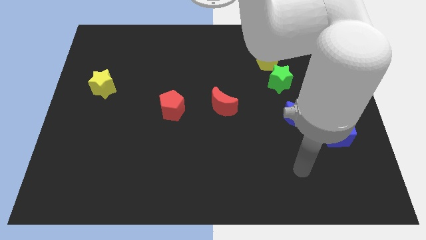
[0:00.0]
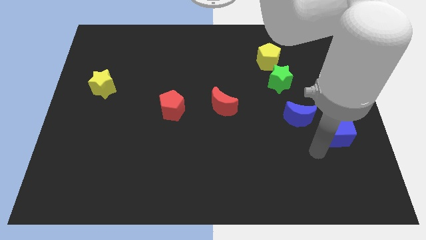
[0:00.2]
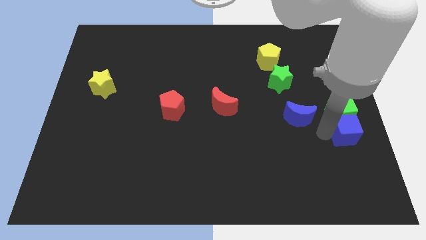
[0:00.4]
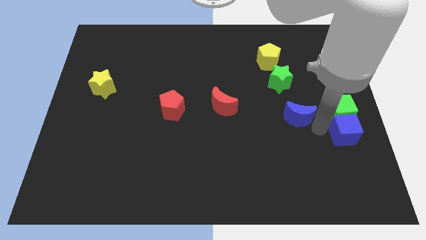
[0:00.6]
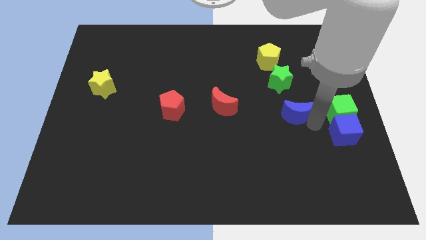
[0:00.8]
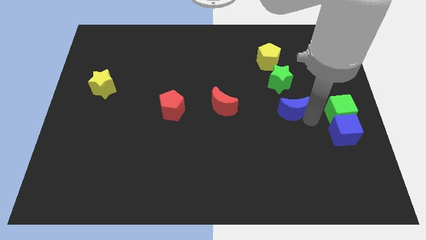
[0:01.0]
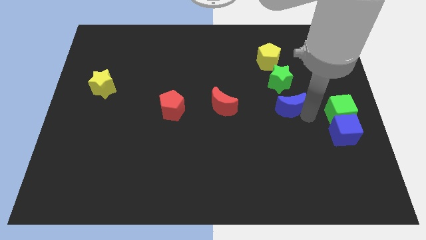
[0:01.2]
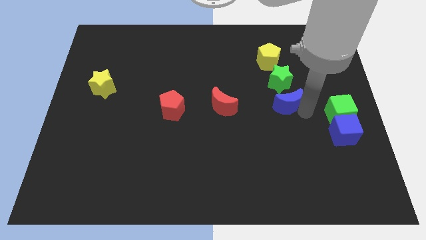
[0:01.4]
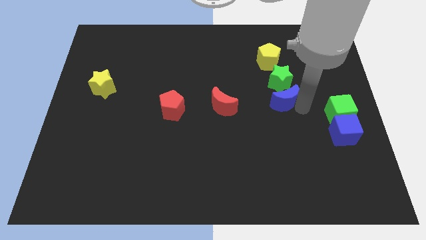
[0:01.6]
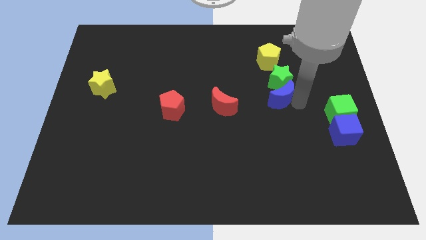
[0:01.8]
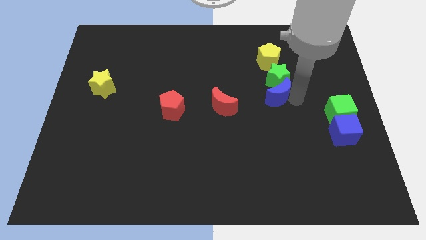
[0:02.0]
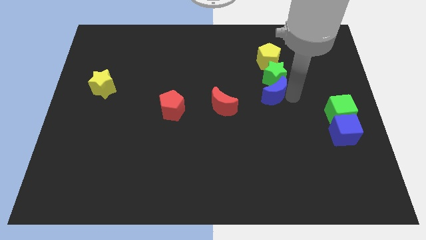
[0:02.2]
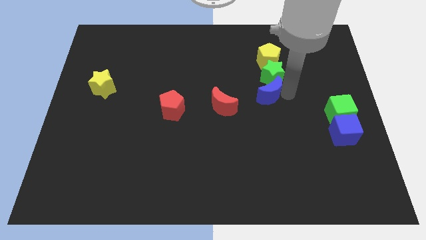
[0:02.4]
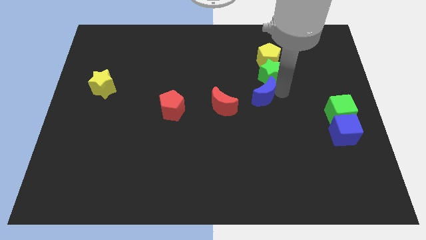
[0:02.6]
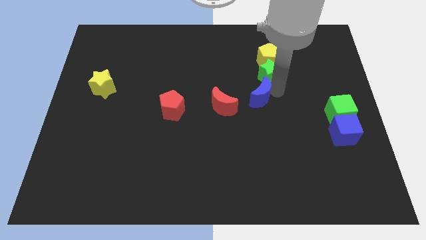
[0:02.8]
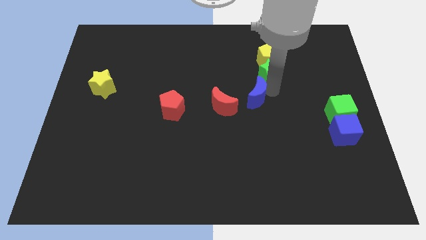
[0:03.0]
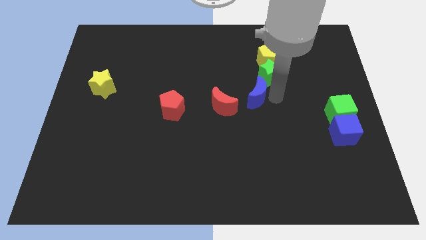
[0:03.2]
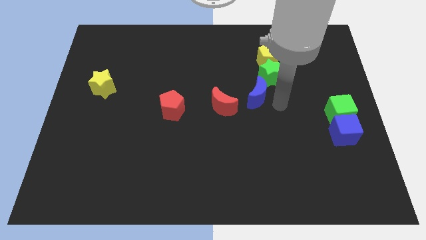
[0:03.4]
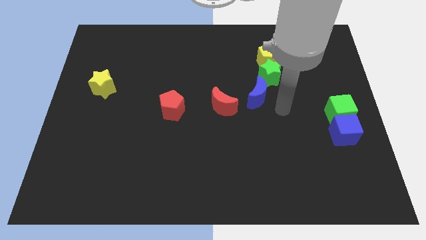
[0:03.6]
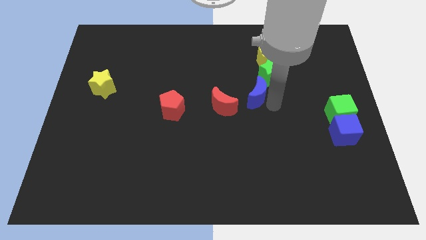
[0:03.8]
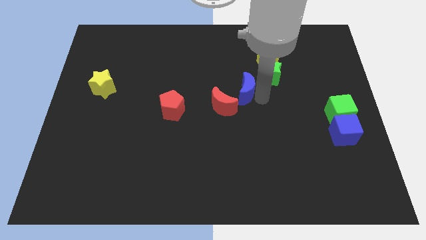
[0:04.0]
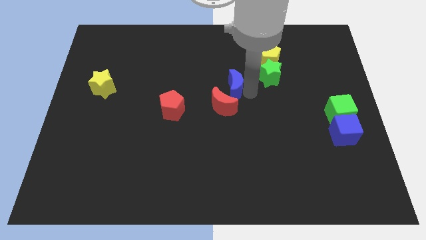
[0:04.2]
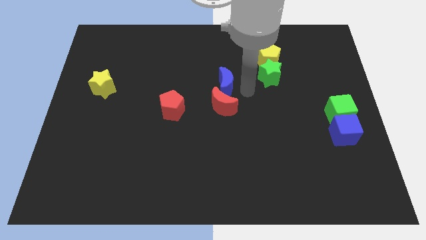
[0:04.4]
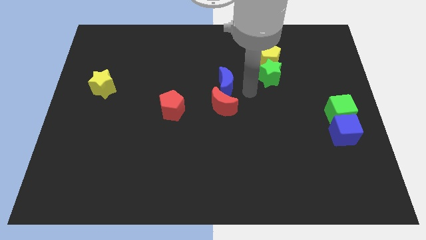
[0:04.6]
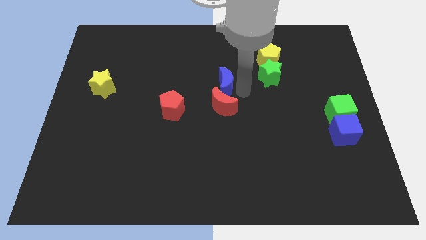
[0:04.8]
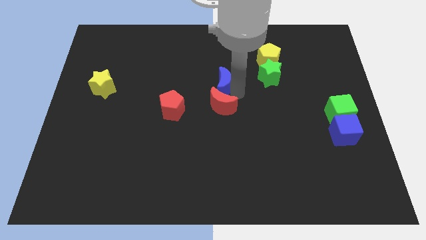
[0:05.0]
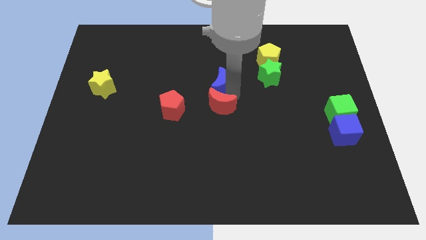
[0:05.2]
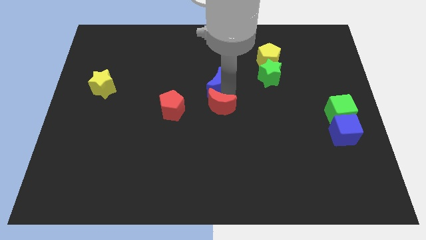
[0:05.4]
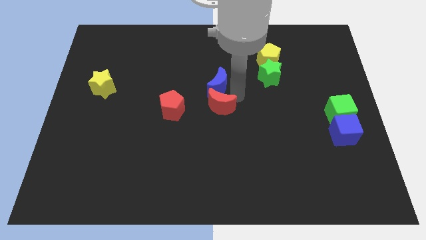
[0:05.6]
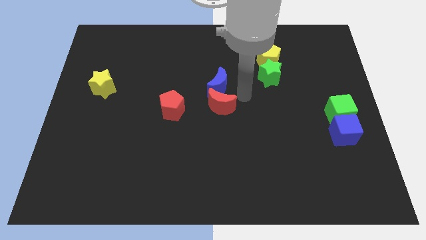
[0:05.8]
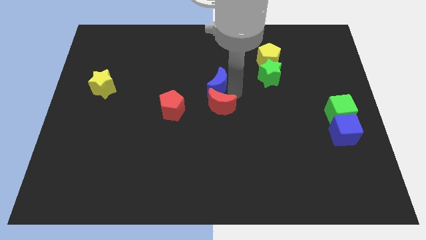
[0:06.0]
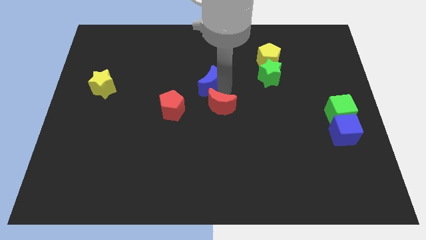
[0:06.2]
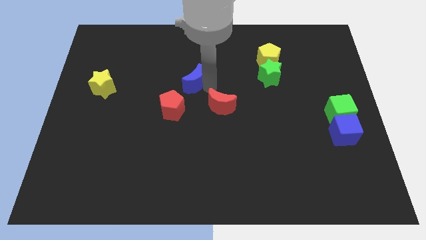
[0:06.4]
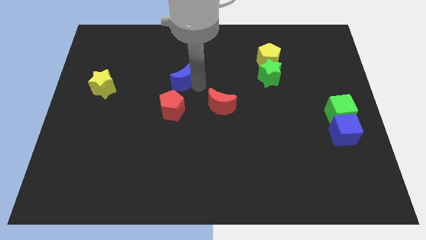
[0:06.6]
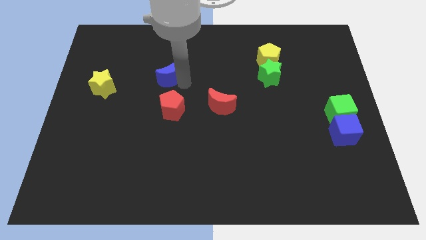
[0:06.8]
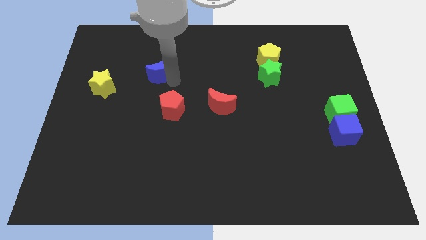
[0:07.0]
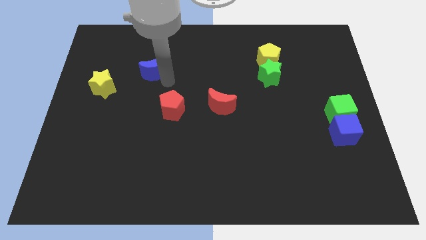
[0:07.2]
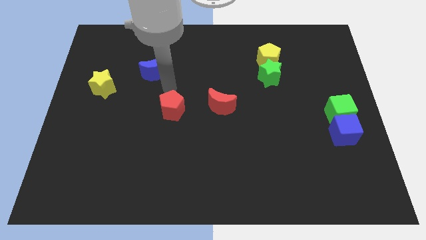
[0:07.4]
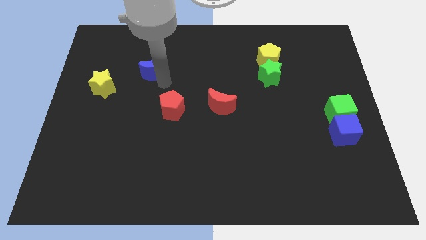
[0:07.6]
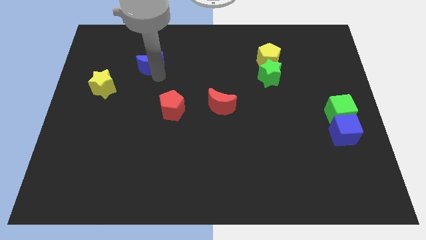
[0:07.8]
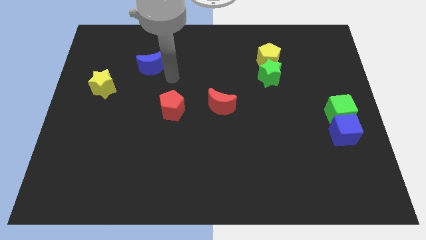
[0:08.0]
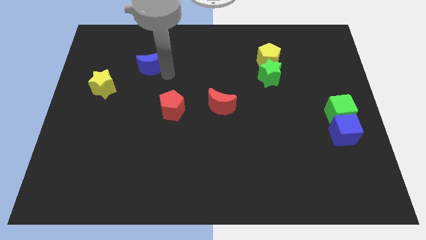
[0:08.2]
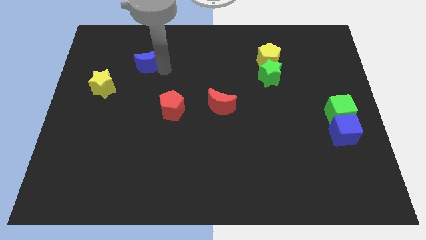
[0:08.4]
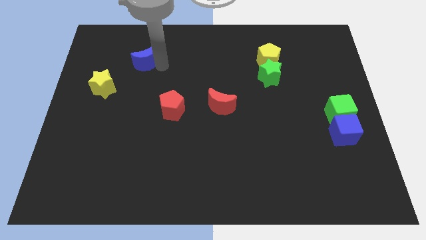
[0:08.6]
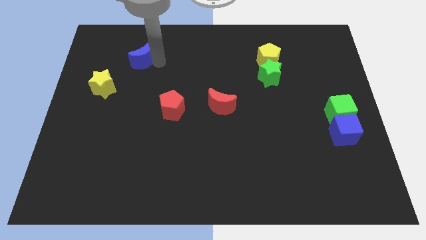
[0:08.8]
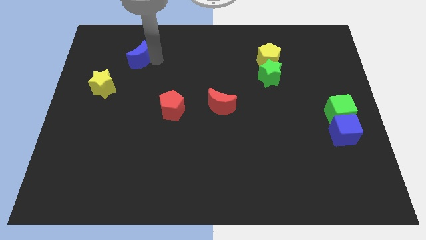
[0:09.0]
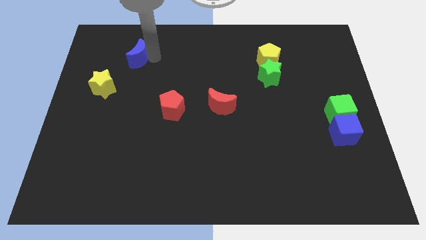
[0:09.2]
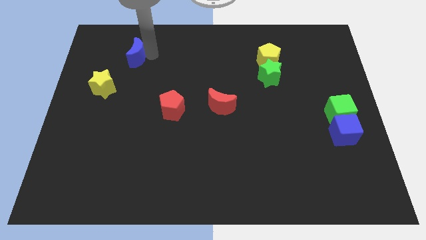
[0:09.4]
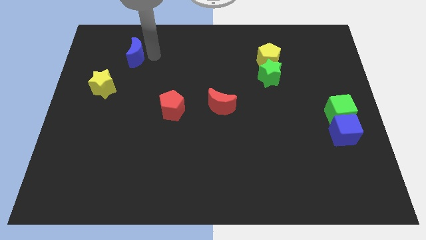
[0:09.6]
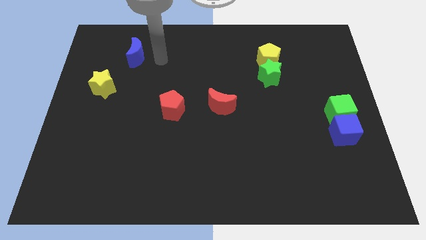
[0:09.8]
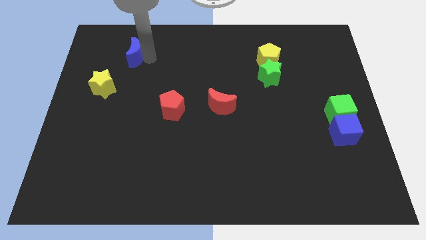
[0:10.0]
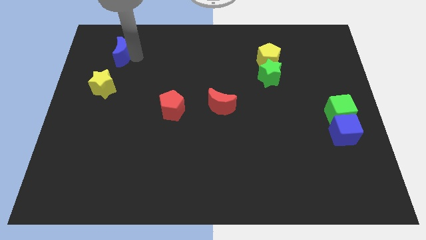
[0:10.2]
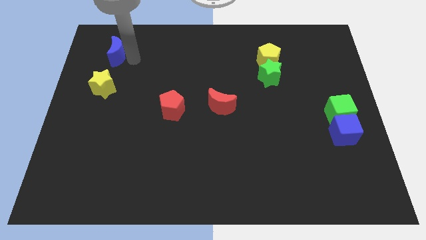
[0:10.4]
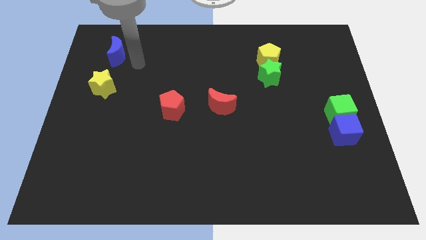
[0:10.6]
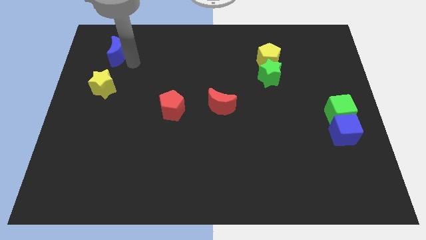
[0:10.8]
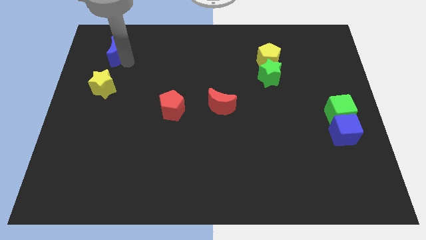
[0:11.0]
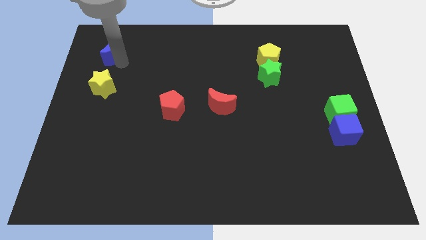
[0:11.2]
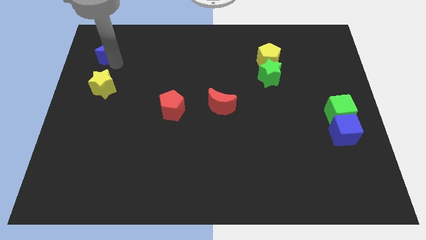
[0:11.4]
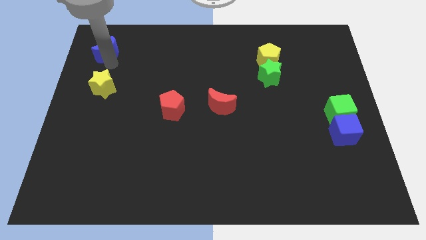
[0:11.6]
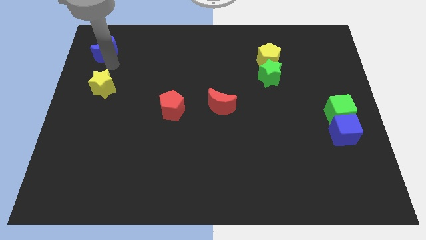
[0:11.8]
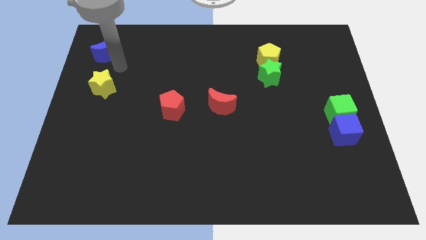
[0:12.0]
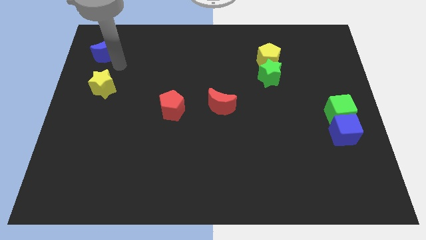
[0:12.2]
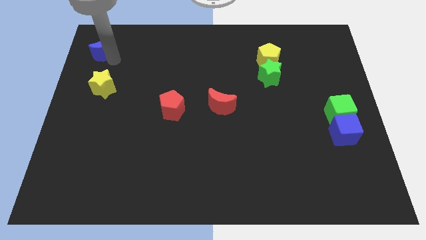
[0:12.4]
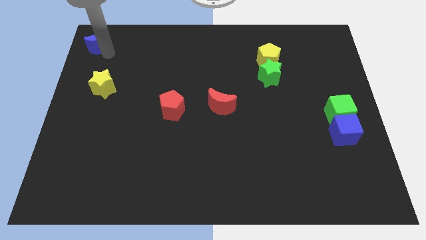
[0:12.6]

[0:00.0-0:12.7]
move the blue moon to the top left
